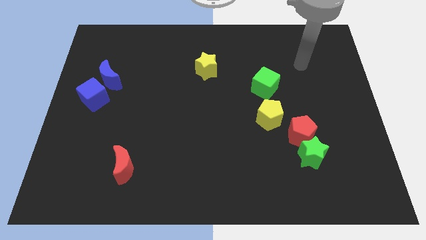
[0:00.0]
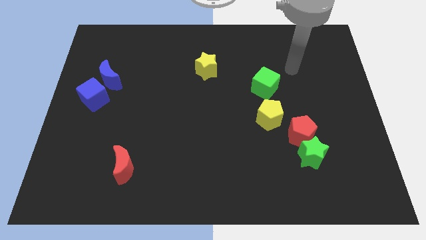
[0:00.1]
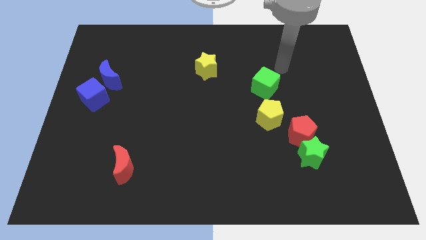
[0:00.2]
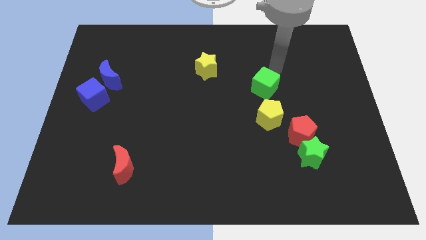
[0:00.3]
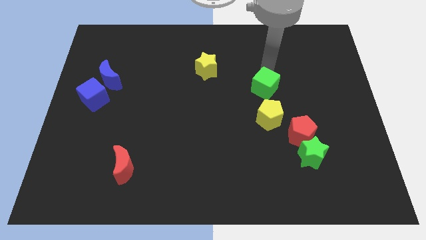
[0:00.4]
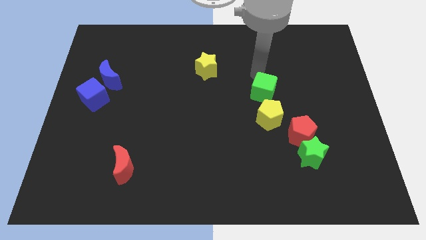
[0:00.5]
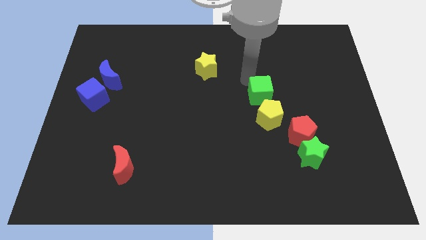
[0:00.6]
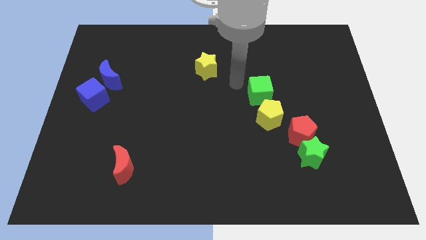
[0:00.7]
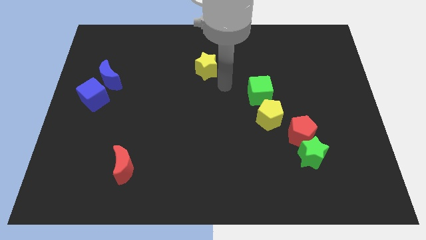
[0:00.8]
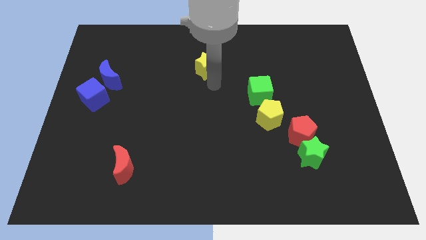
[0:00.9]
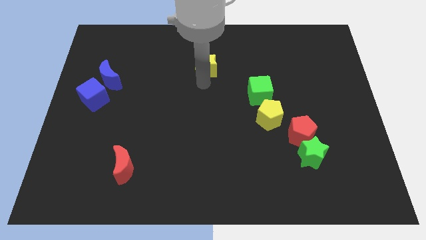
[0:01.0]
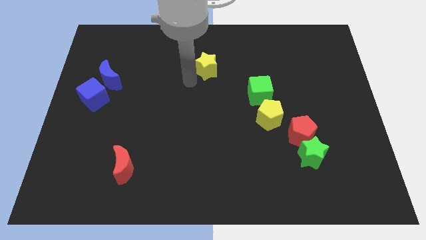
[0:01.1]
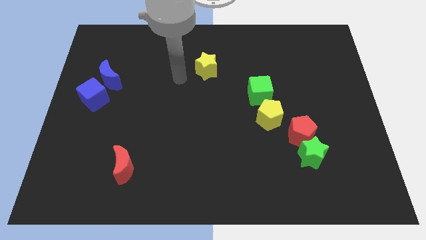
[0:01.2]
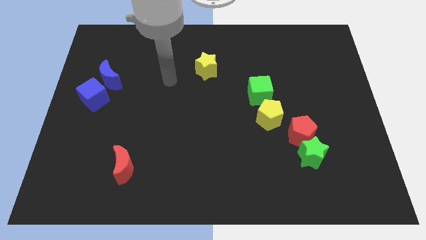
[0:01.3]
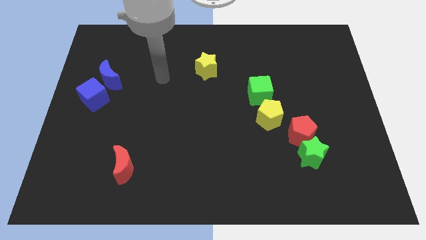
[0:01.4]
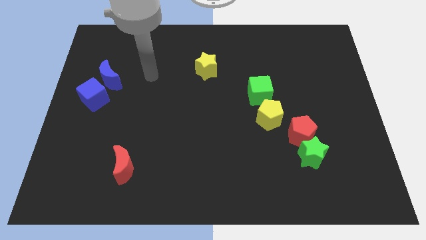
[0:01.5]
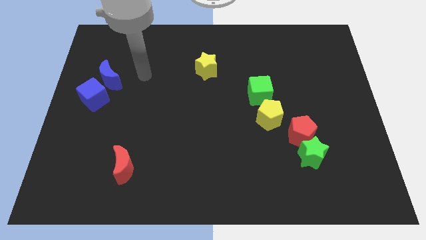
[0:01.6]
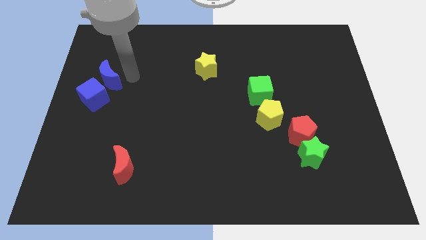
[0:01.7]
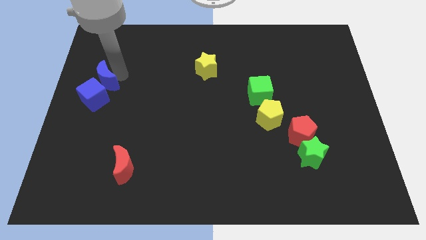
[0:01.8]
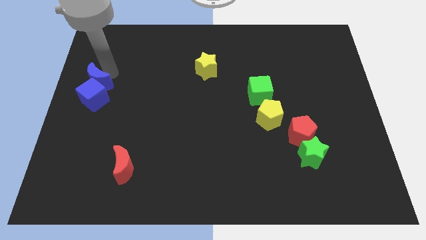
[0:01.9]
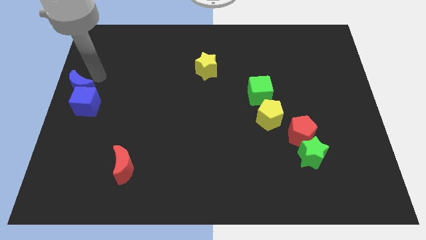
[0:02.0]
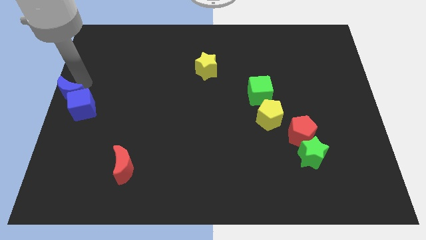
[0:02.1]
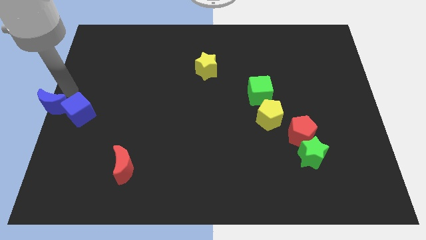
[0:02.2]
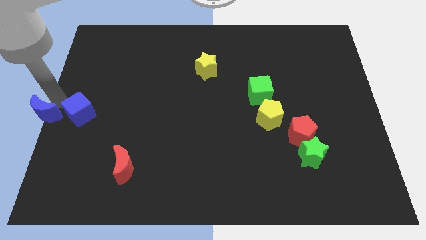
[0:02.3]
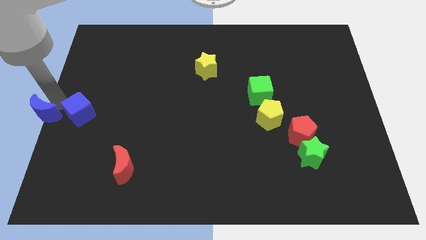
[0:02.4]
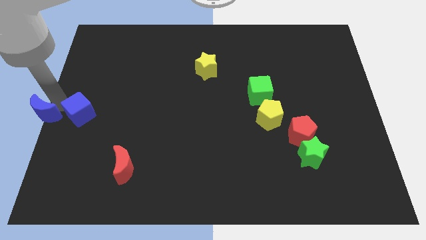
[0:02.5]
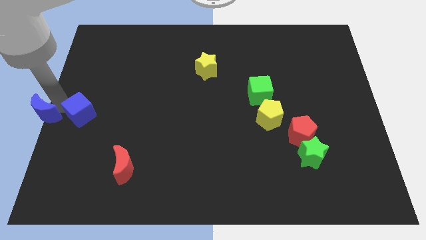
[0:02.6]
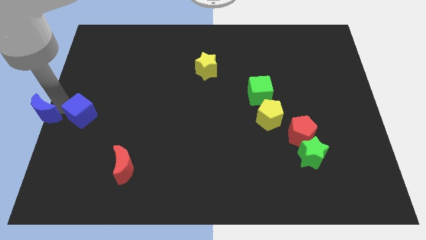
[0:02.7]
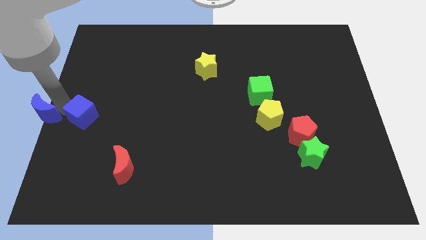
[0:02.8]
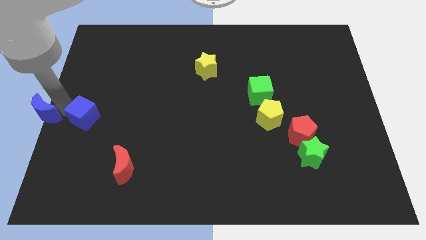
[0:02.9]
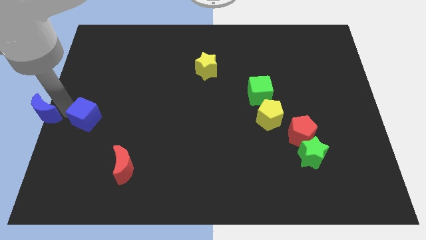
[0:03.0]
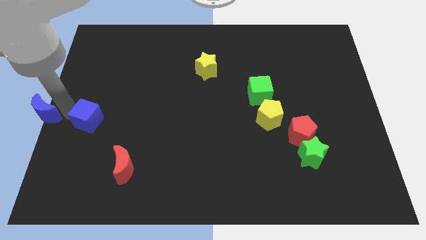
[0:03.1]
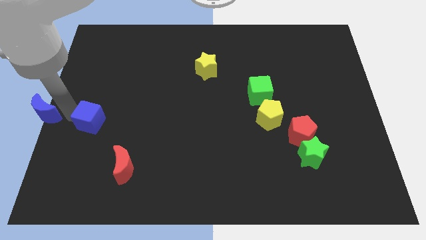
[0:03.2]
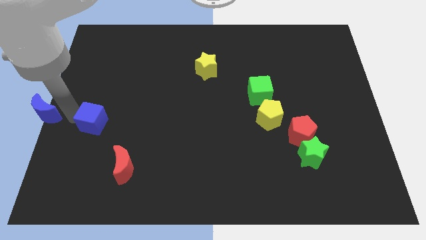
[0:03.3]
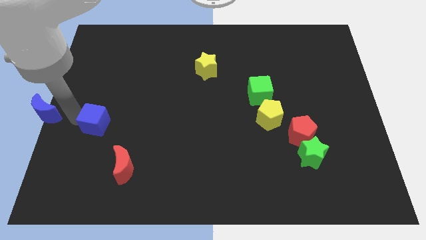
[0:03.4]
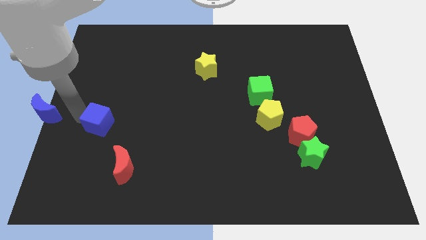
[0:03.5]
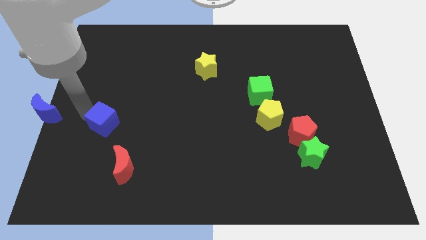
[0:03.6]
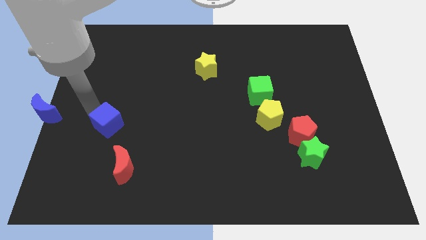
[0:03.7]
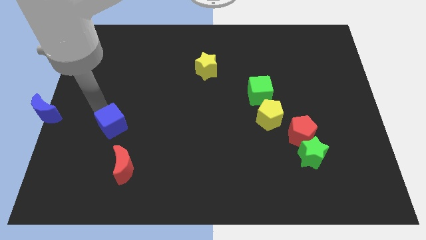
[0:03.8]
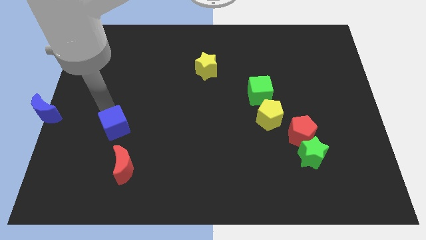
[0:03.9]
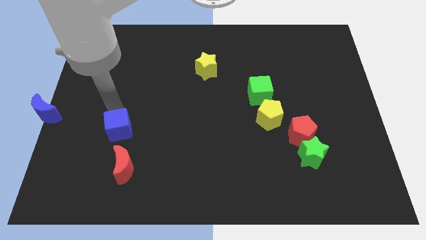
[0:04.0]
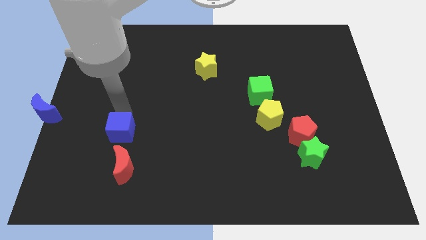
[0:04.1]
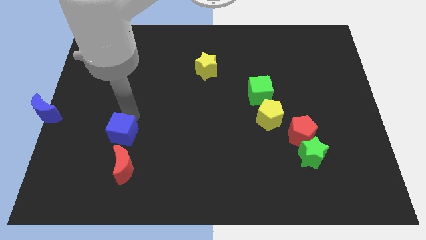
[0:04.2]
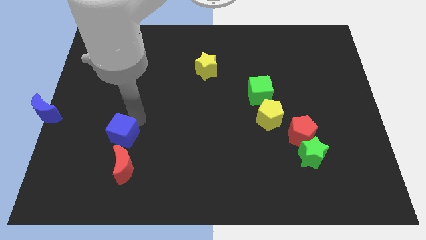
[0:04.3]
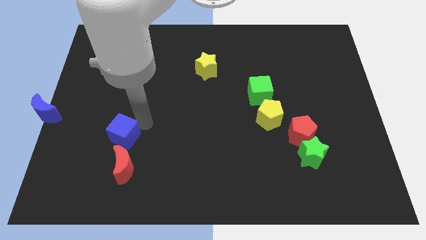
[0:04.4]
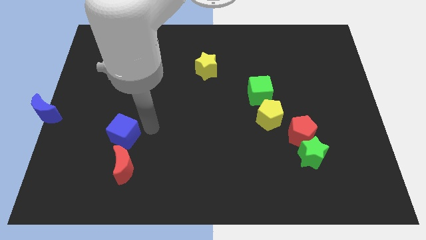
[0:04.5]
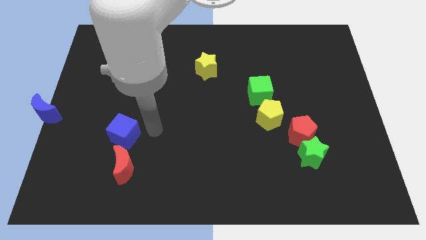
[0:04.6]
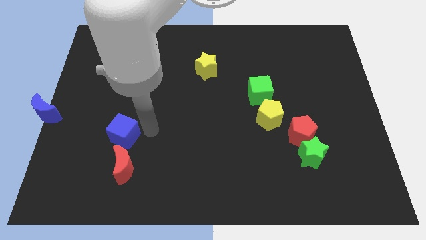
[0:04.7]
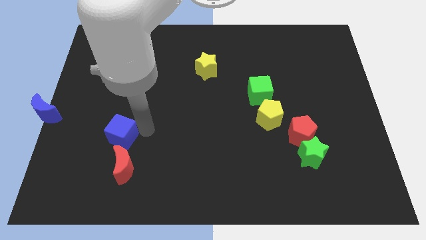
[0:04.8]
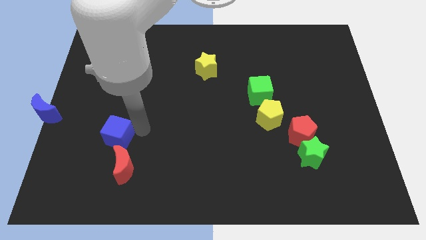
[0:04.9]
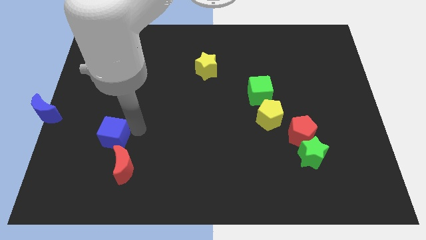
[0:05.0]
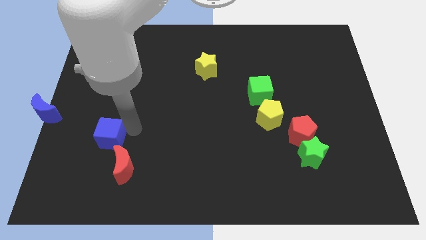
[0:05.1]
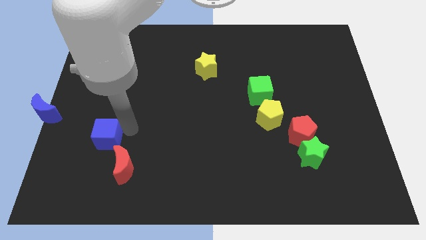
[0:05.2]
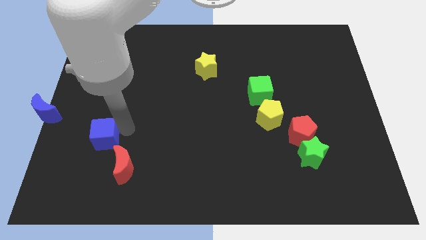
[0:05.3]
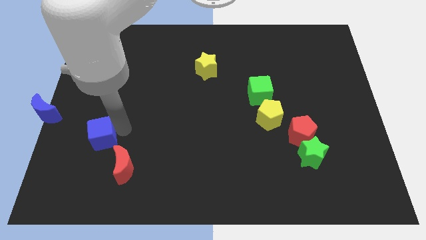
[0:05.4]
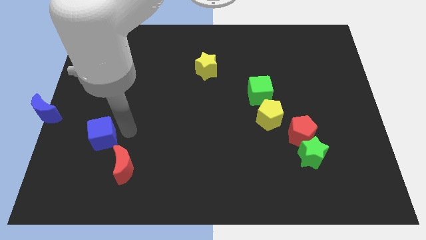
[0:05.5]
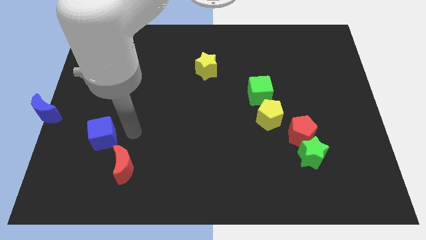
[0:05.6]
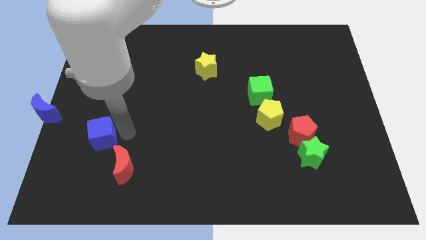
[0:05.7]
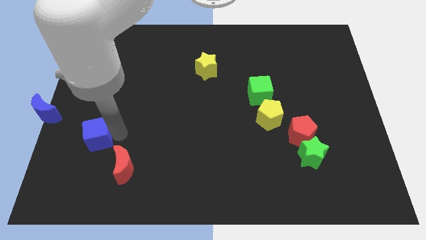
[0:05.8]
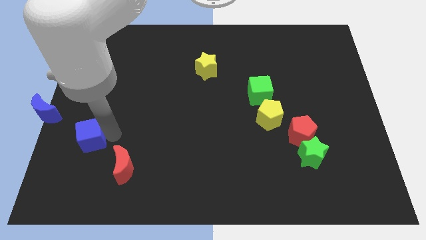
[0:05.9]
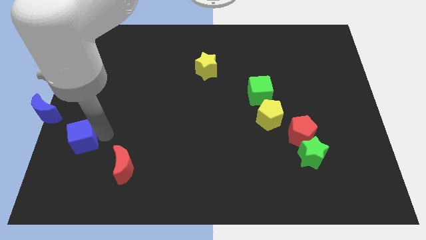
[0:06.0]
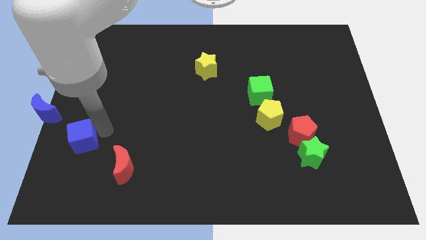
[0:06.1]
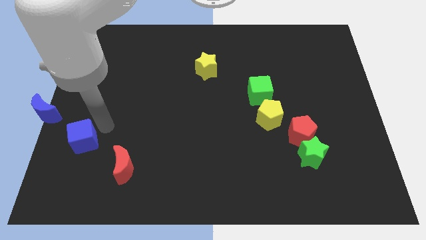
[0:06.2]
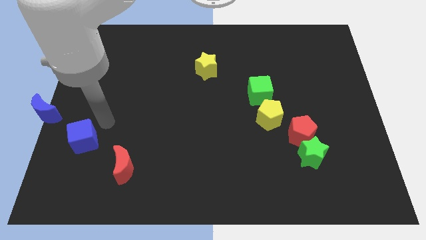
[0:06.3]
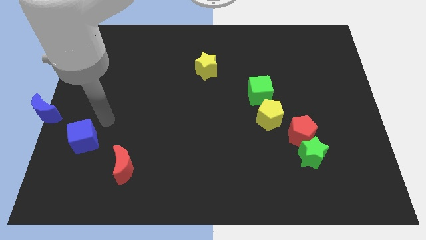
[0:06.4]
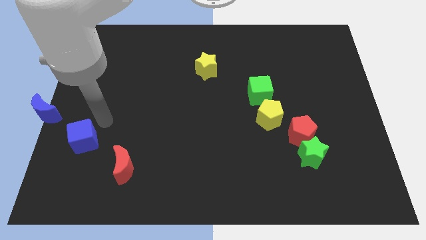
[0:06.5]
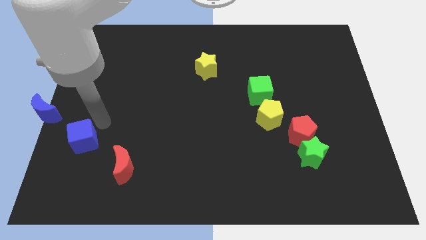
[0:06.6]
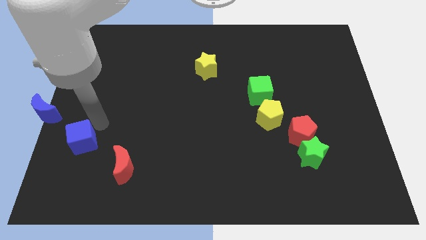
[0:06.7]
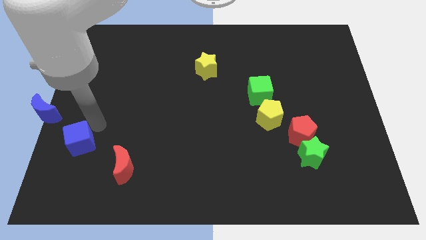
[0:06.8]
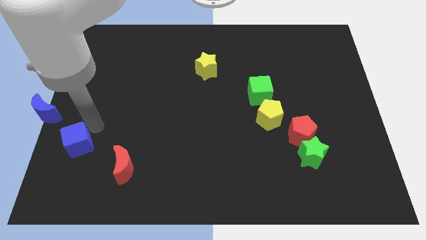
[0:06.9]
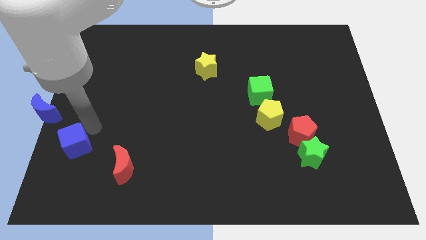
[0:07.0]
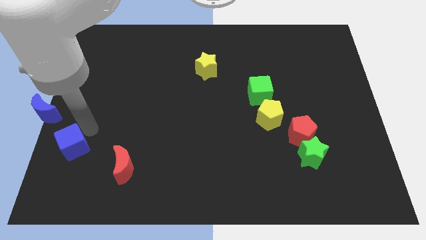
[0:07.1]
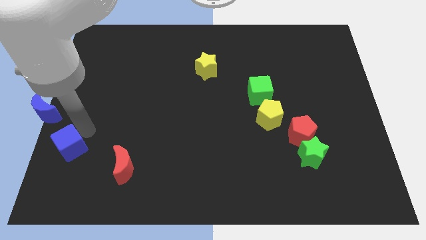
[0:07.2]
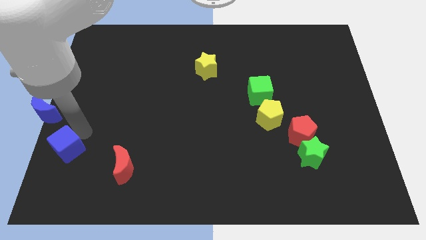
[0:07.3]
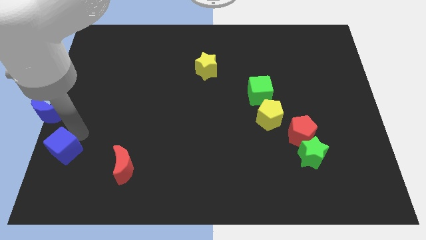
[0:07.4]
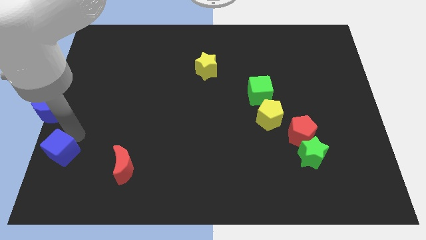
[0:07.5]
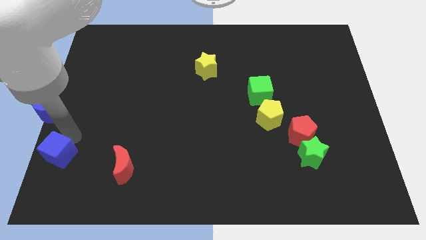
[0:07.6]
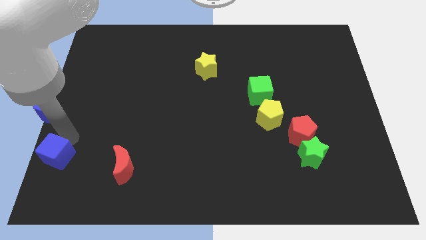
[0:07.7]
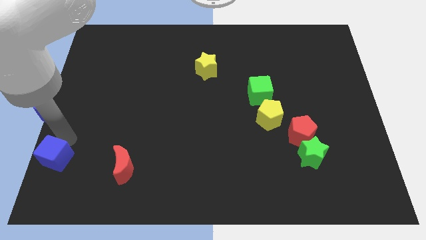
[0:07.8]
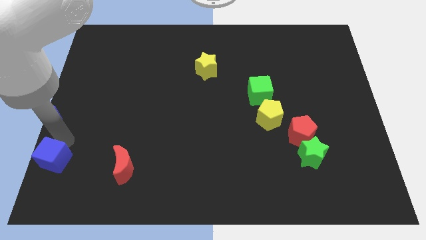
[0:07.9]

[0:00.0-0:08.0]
move the blue cube to the bottom left
